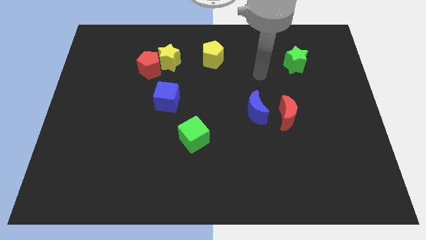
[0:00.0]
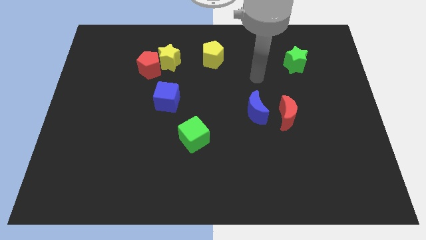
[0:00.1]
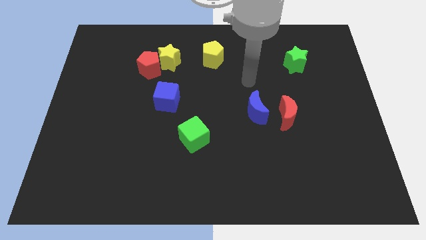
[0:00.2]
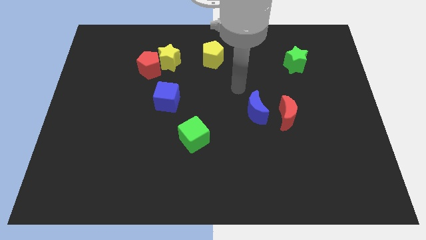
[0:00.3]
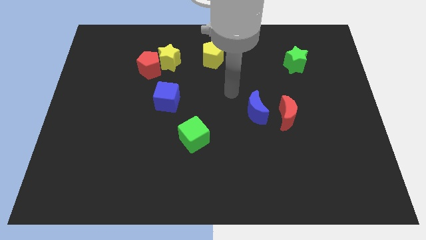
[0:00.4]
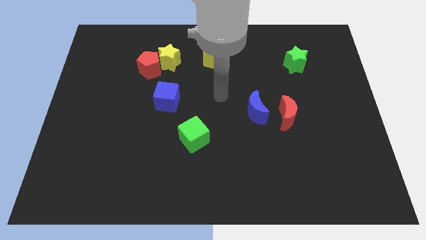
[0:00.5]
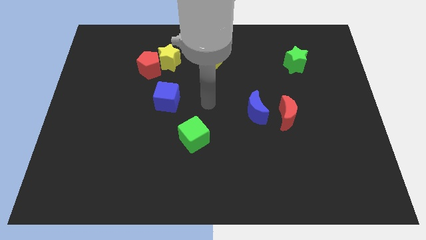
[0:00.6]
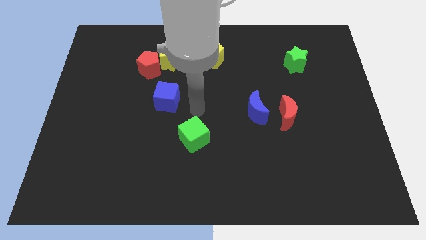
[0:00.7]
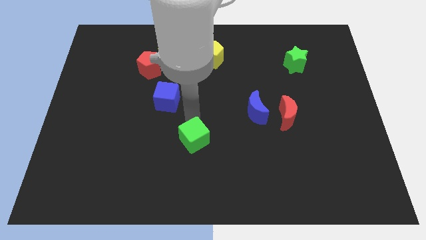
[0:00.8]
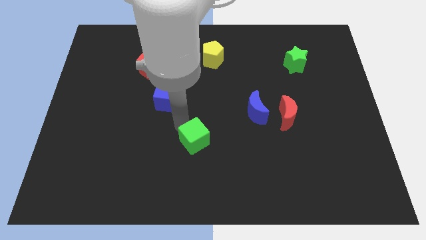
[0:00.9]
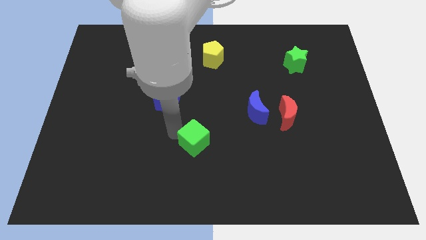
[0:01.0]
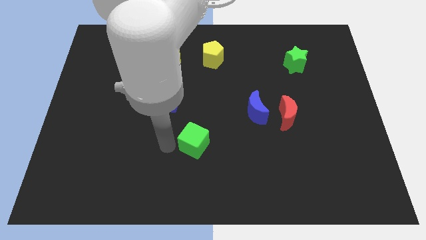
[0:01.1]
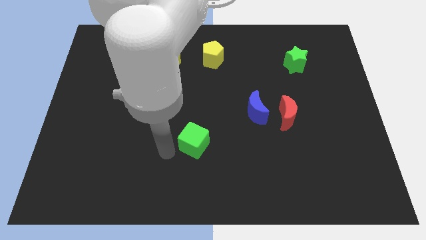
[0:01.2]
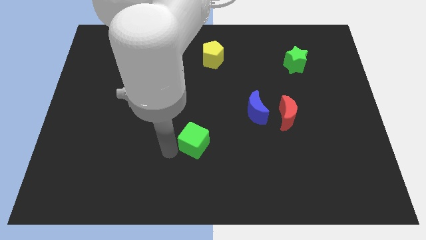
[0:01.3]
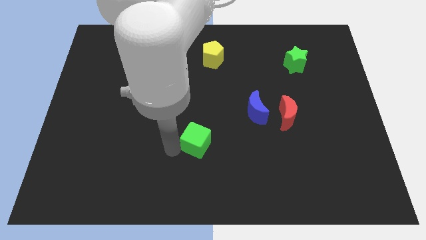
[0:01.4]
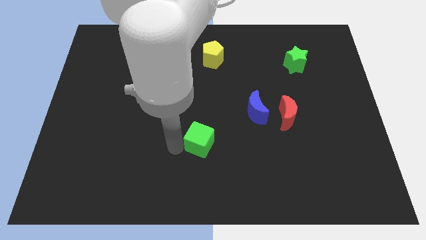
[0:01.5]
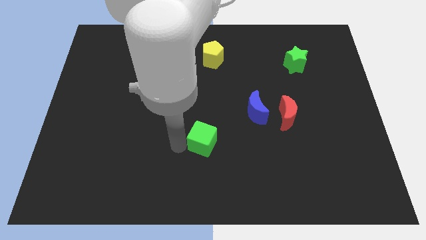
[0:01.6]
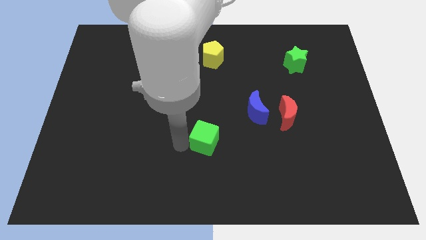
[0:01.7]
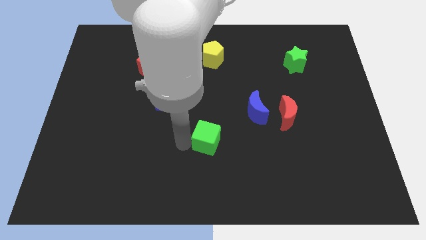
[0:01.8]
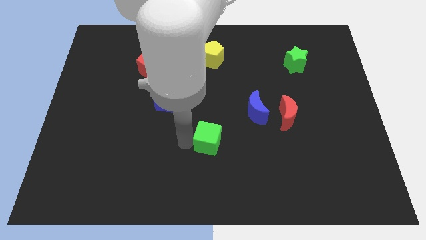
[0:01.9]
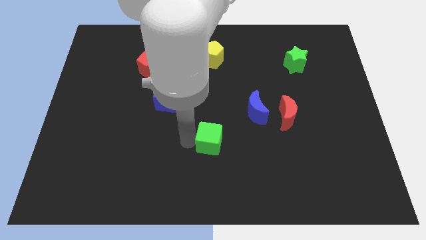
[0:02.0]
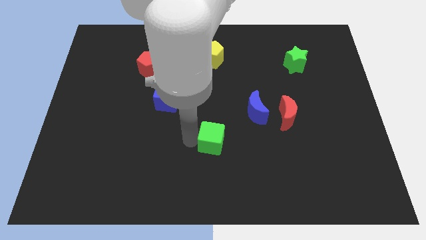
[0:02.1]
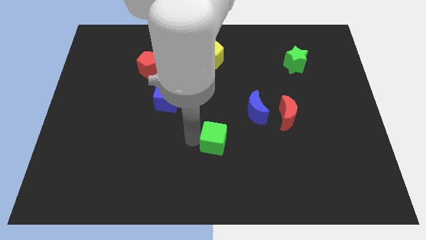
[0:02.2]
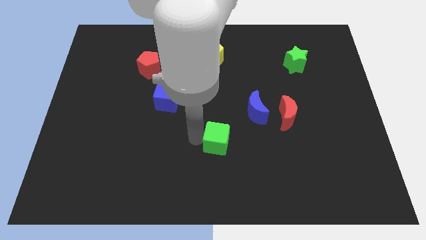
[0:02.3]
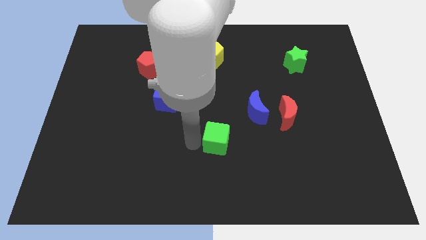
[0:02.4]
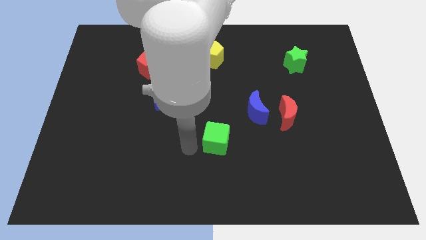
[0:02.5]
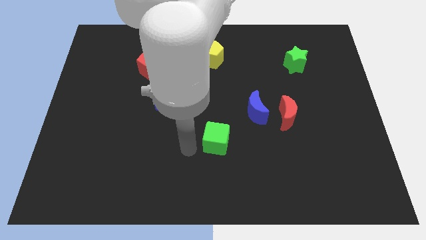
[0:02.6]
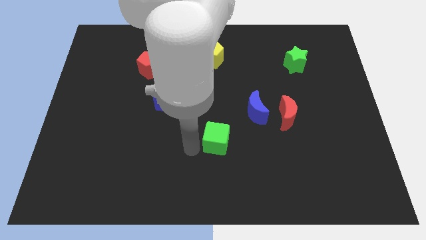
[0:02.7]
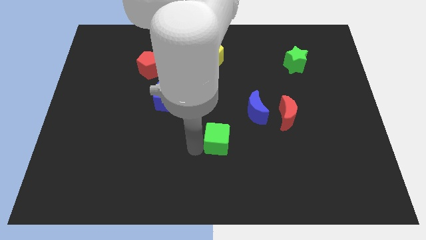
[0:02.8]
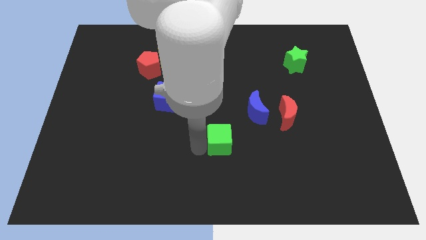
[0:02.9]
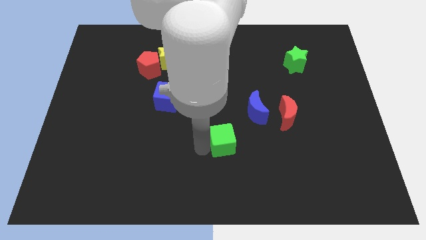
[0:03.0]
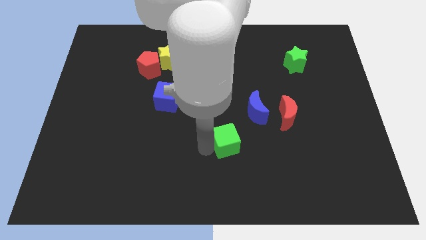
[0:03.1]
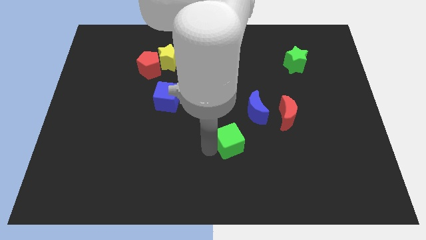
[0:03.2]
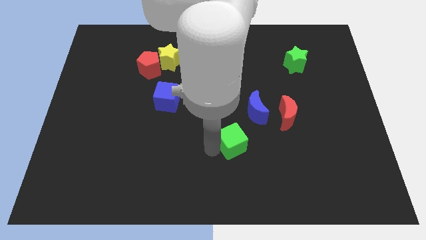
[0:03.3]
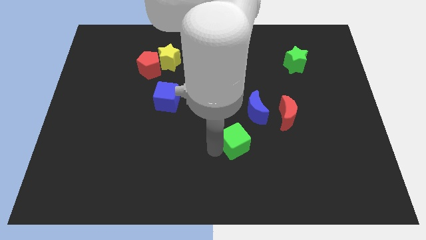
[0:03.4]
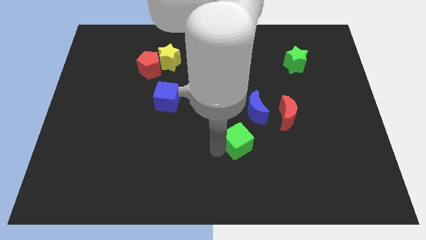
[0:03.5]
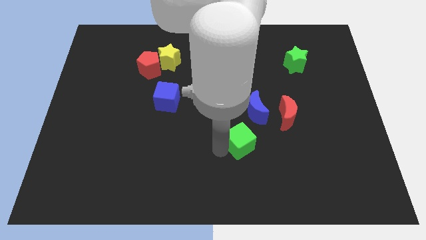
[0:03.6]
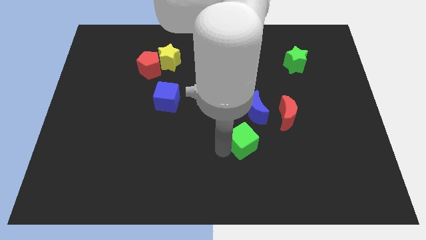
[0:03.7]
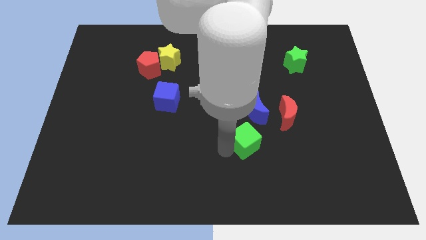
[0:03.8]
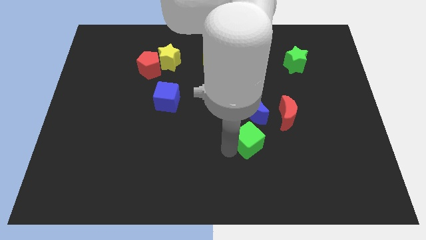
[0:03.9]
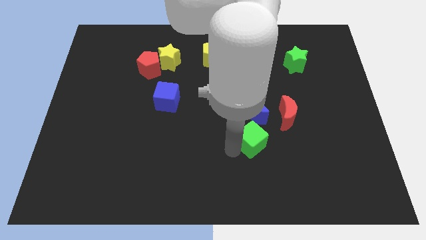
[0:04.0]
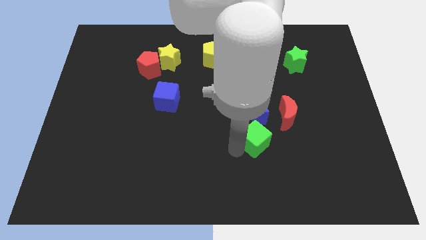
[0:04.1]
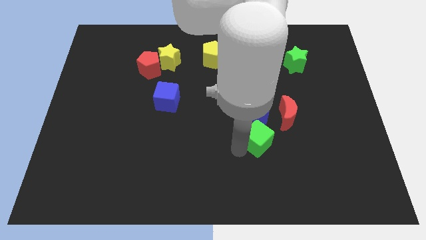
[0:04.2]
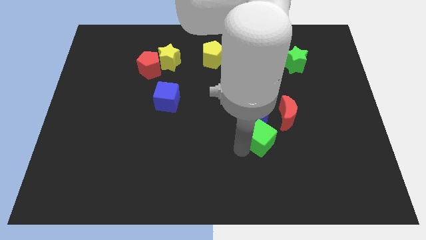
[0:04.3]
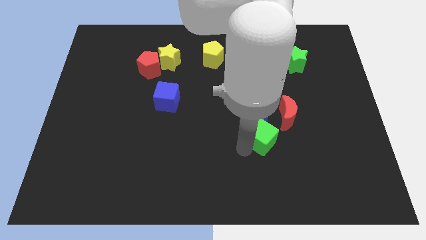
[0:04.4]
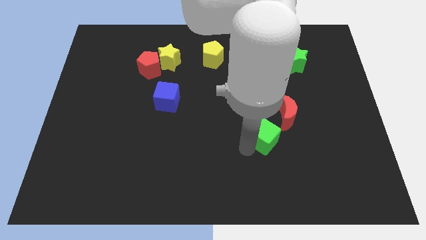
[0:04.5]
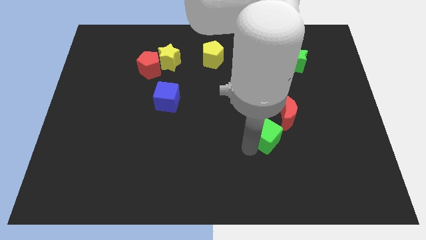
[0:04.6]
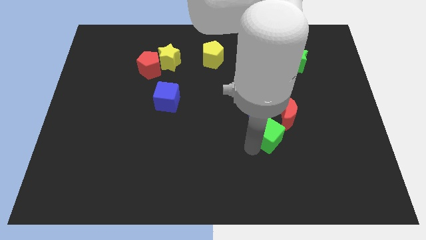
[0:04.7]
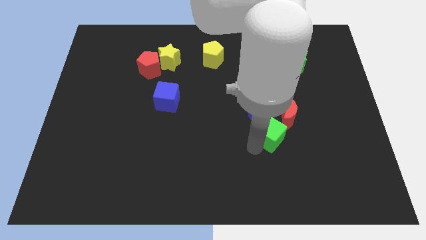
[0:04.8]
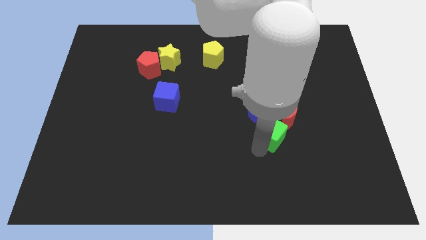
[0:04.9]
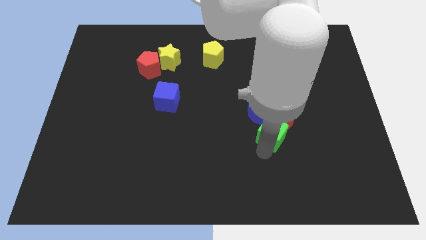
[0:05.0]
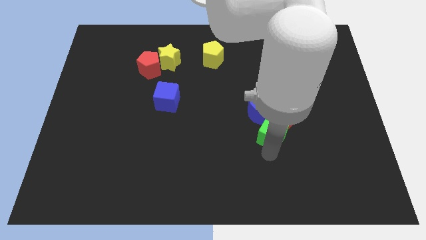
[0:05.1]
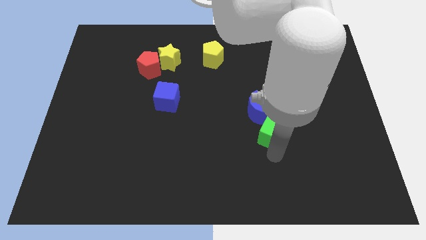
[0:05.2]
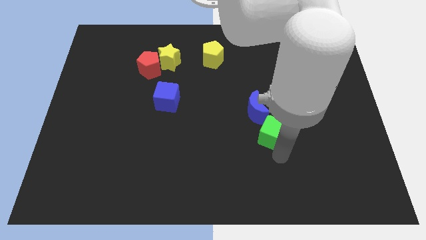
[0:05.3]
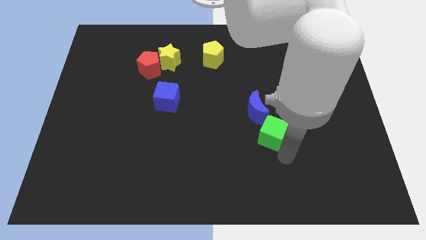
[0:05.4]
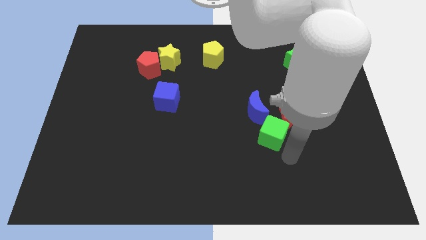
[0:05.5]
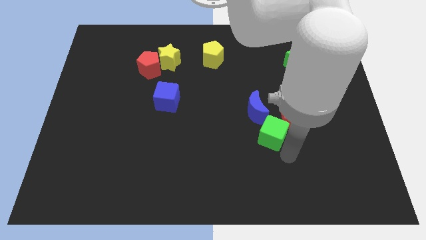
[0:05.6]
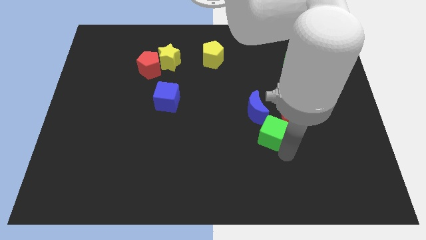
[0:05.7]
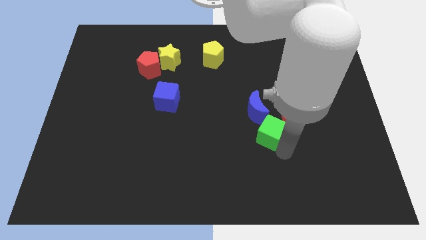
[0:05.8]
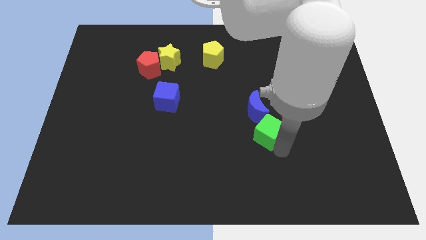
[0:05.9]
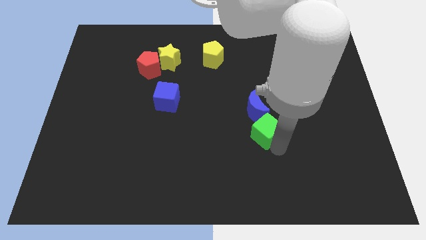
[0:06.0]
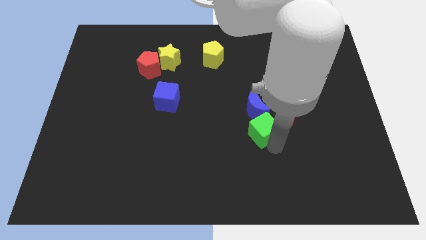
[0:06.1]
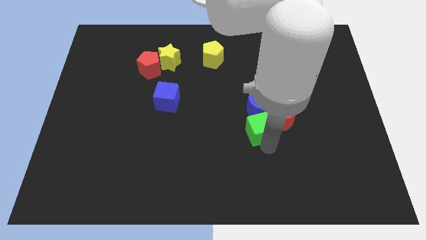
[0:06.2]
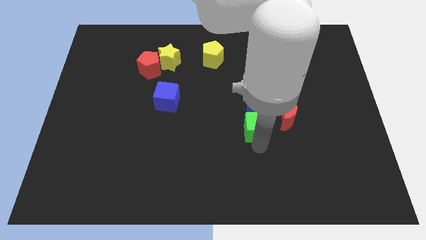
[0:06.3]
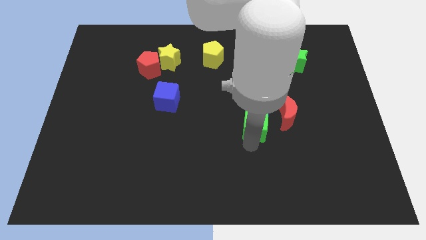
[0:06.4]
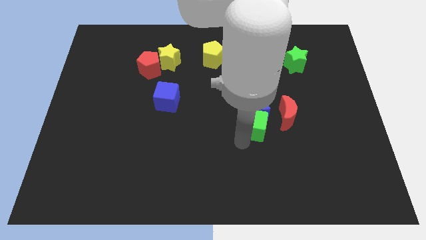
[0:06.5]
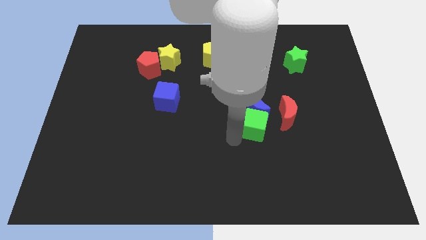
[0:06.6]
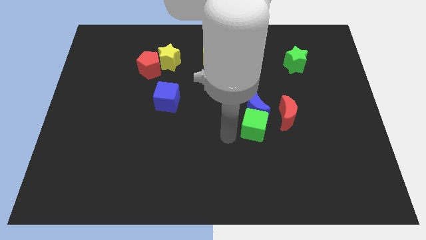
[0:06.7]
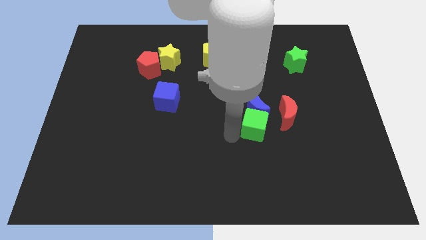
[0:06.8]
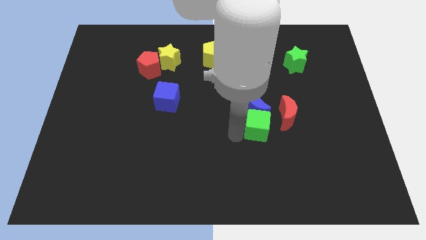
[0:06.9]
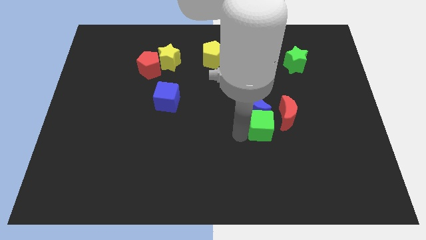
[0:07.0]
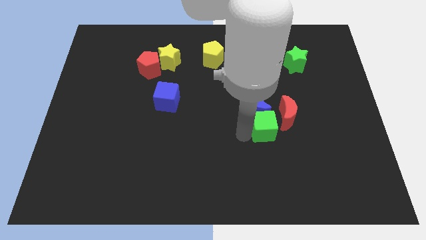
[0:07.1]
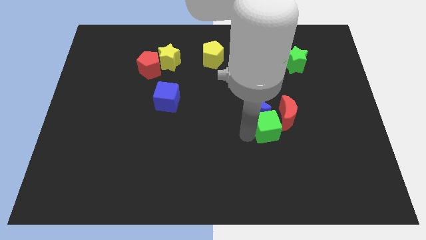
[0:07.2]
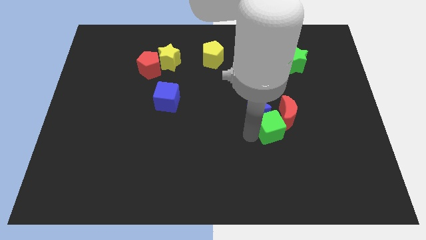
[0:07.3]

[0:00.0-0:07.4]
push the green cube towards the red moon

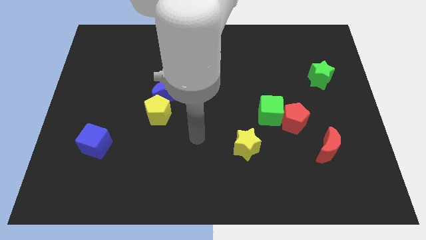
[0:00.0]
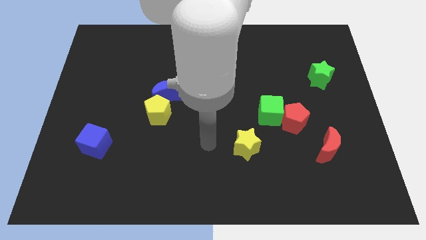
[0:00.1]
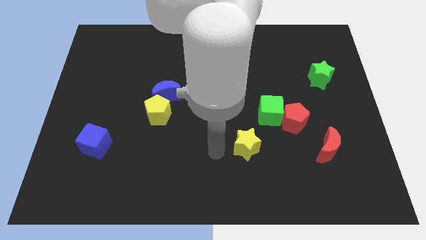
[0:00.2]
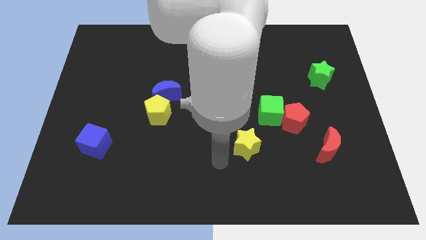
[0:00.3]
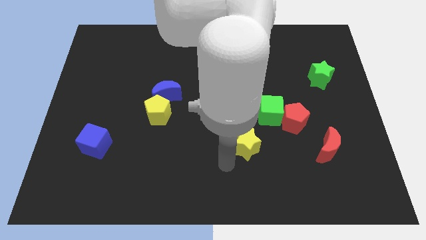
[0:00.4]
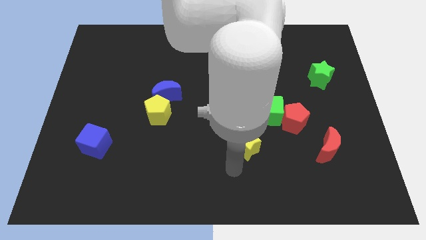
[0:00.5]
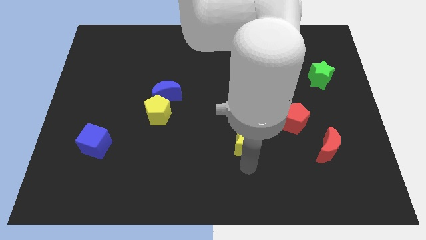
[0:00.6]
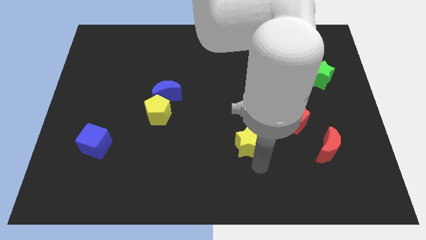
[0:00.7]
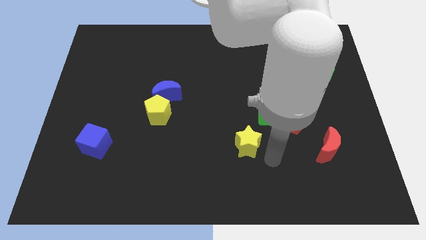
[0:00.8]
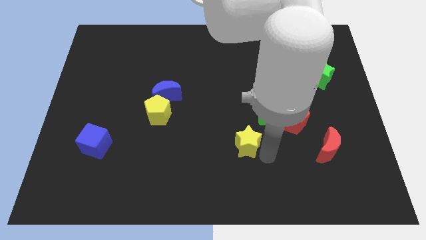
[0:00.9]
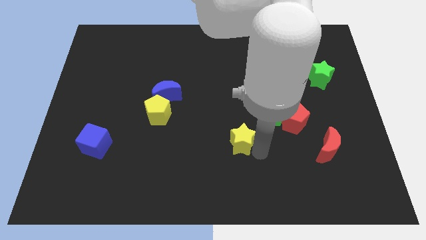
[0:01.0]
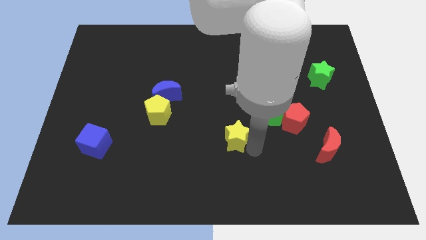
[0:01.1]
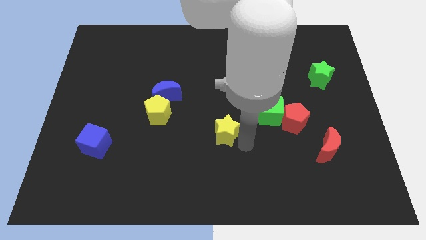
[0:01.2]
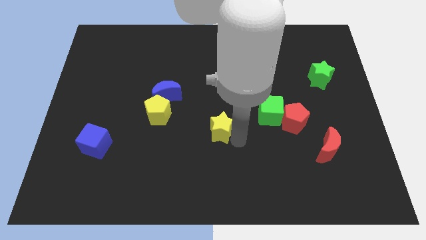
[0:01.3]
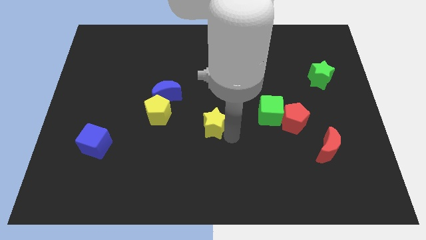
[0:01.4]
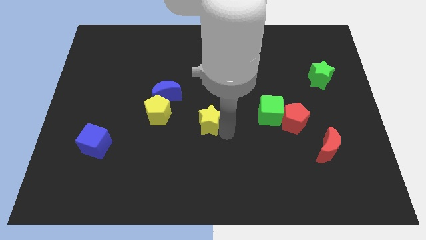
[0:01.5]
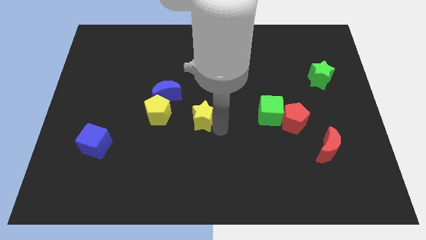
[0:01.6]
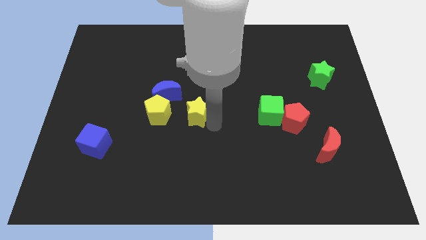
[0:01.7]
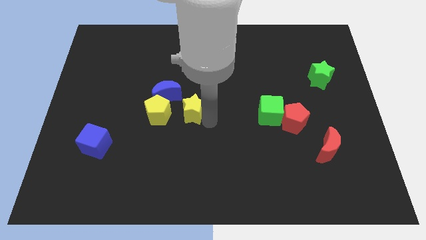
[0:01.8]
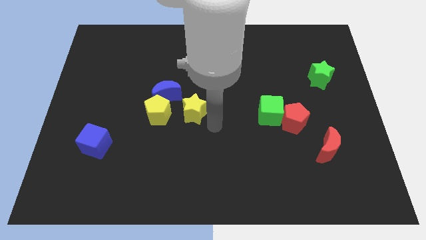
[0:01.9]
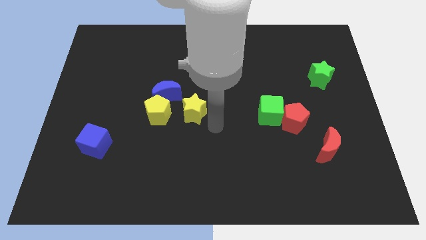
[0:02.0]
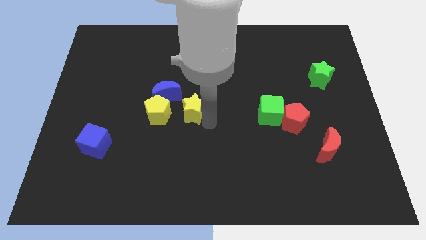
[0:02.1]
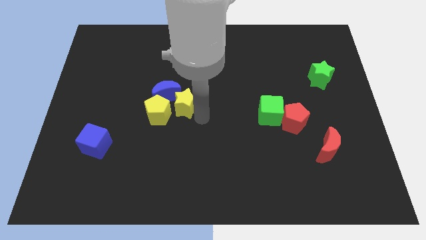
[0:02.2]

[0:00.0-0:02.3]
slide the yellow star towards the blue moon
